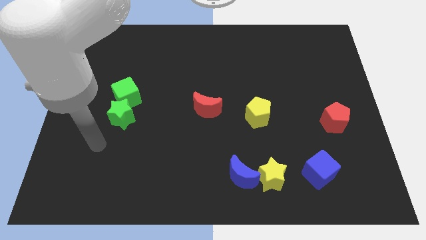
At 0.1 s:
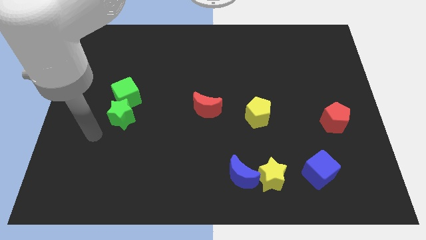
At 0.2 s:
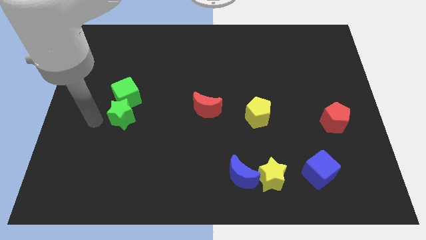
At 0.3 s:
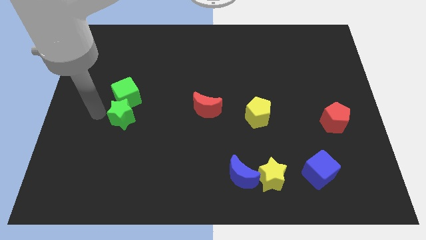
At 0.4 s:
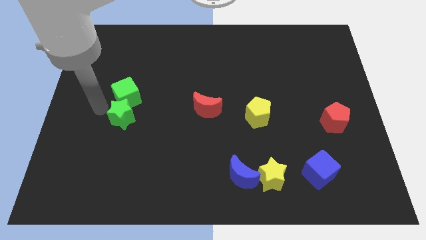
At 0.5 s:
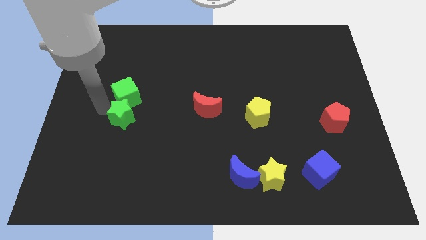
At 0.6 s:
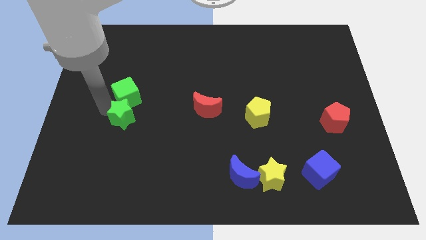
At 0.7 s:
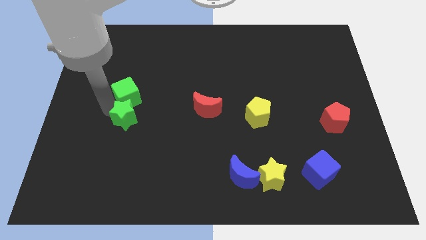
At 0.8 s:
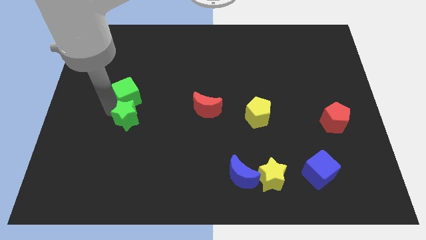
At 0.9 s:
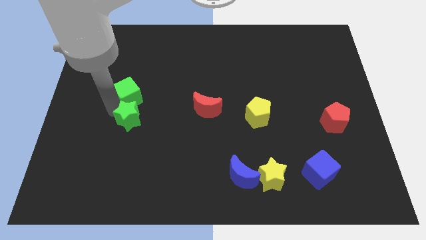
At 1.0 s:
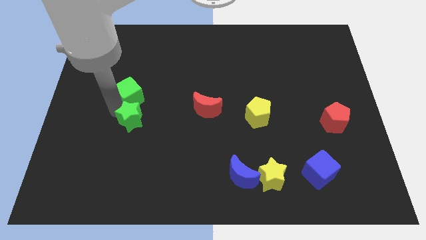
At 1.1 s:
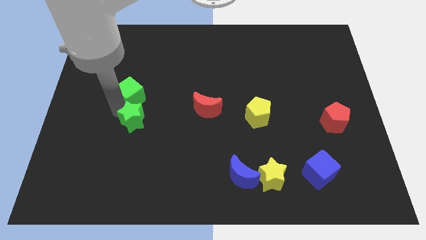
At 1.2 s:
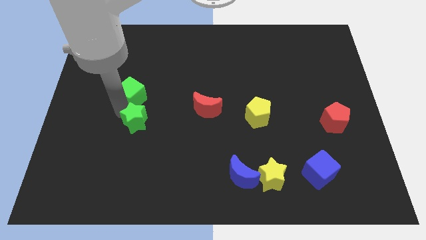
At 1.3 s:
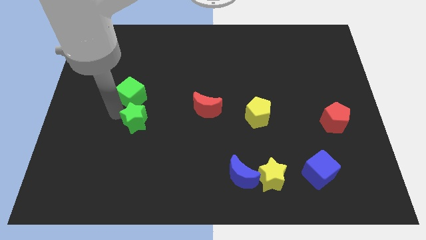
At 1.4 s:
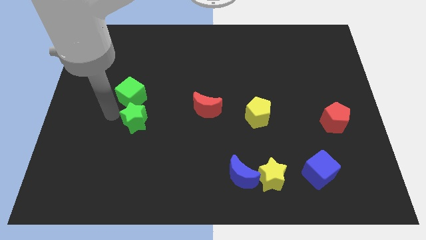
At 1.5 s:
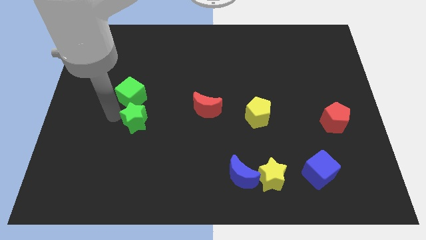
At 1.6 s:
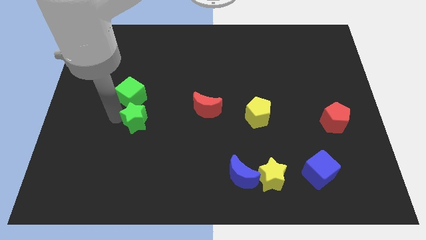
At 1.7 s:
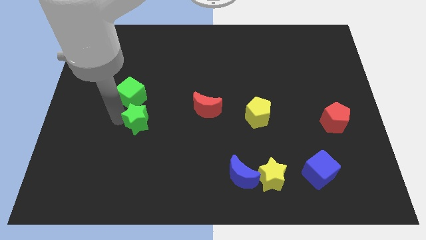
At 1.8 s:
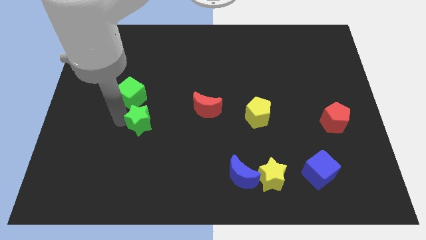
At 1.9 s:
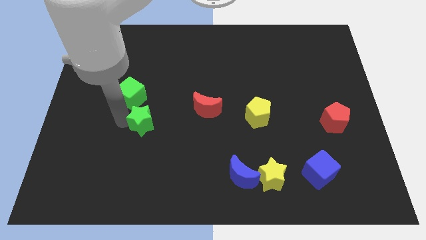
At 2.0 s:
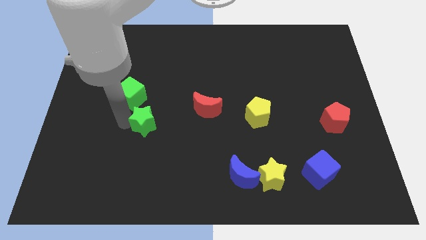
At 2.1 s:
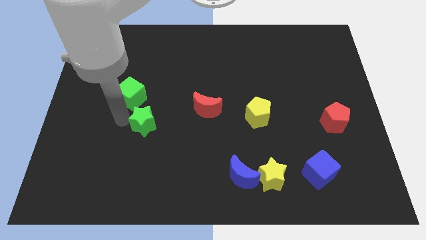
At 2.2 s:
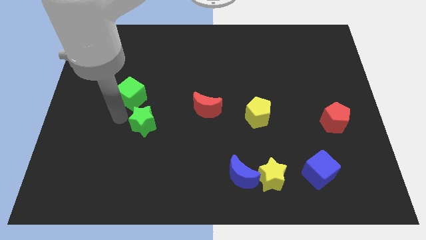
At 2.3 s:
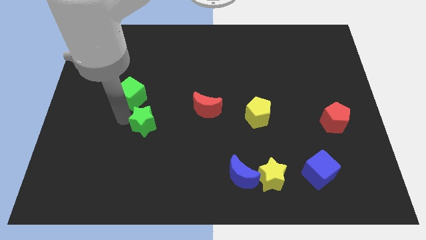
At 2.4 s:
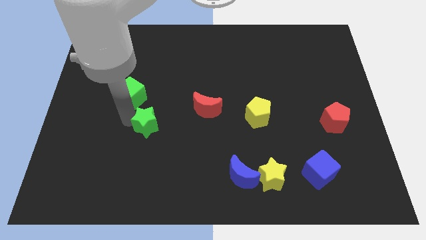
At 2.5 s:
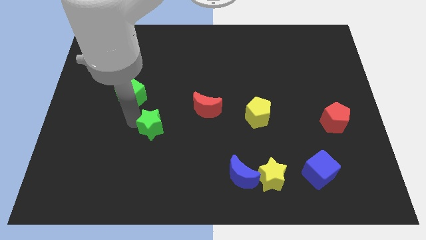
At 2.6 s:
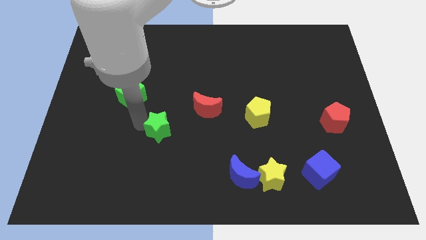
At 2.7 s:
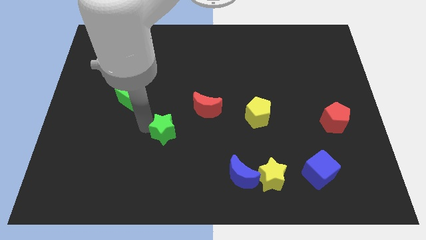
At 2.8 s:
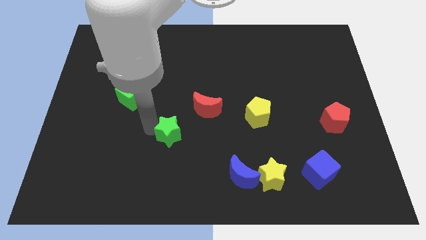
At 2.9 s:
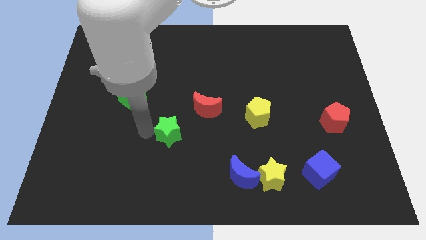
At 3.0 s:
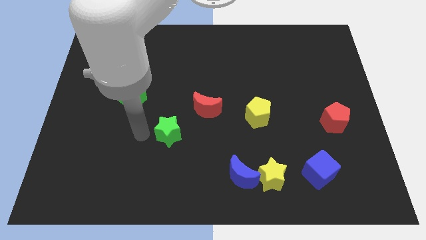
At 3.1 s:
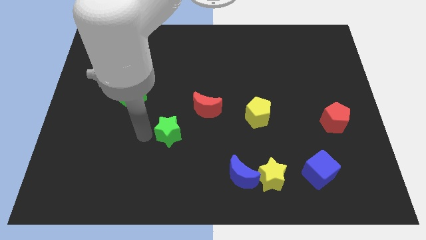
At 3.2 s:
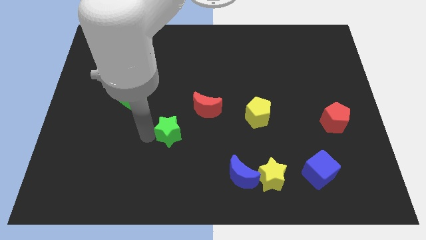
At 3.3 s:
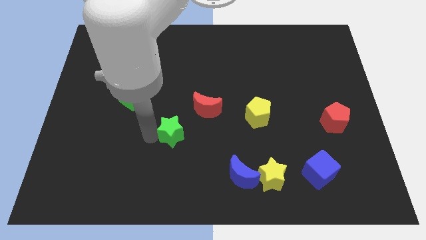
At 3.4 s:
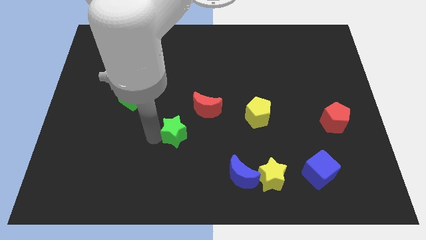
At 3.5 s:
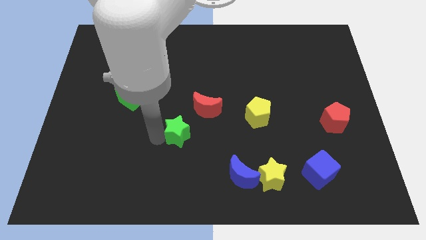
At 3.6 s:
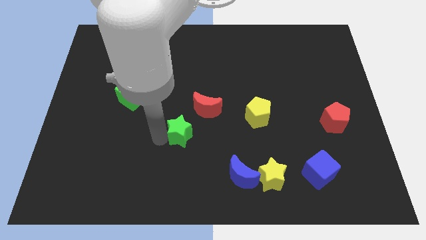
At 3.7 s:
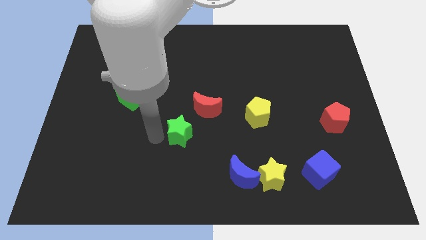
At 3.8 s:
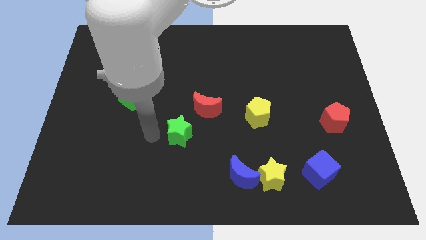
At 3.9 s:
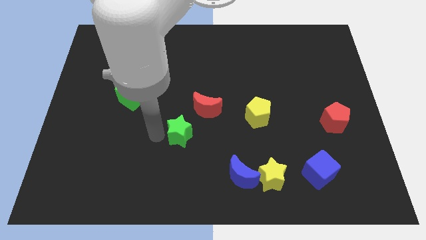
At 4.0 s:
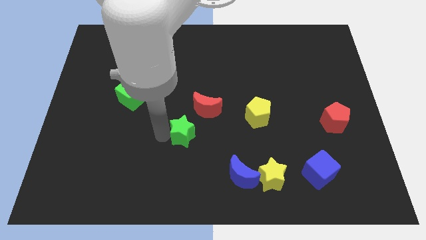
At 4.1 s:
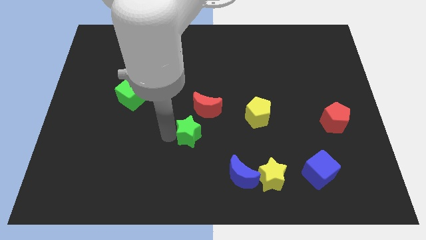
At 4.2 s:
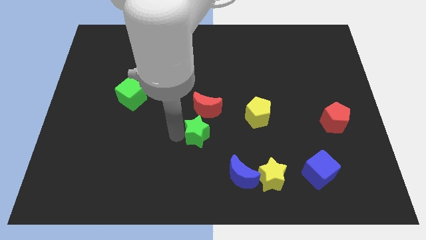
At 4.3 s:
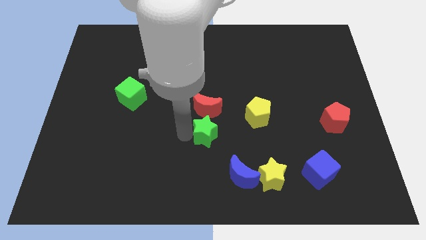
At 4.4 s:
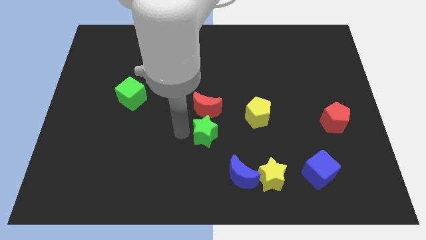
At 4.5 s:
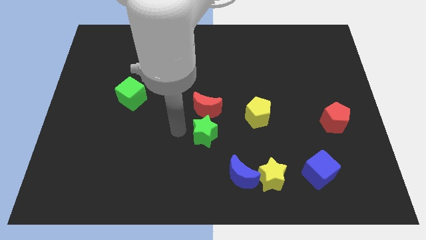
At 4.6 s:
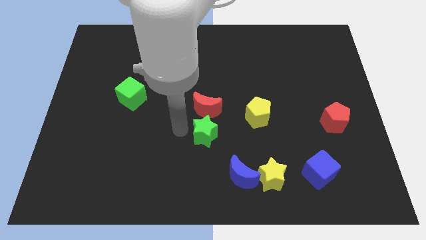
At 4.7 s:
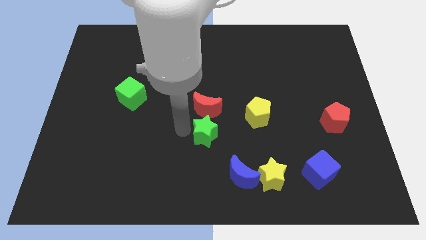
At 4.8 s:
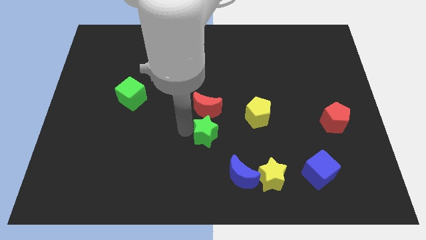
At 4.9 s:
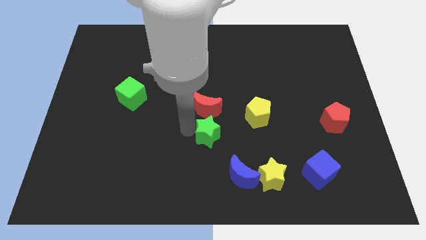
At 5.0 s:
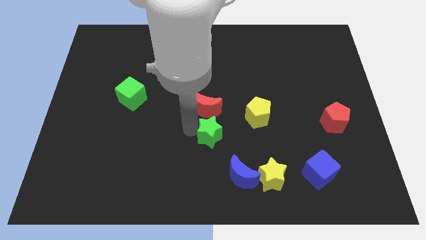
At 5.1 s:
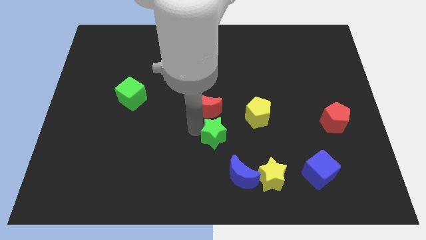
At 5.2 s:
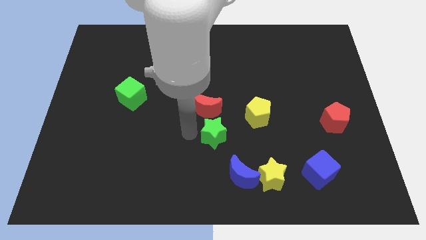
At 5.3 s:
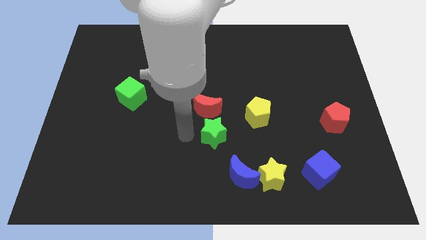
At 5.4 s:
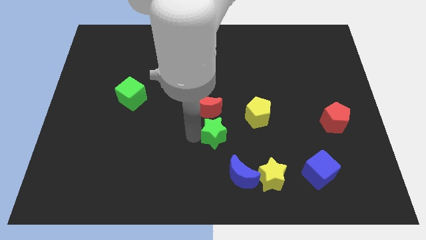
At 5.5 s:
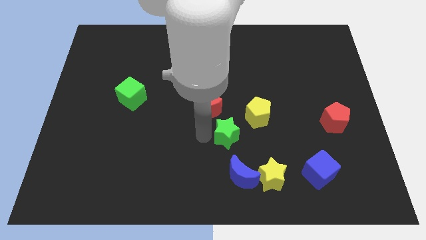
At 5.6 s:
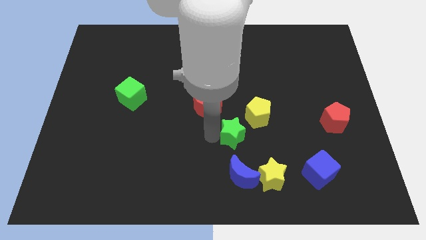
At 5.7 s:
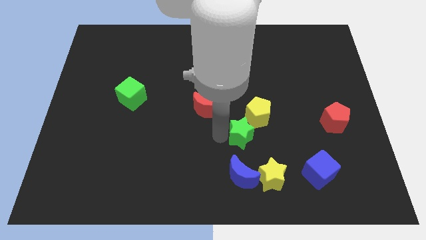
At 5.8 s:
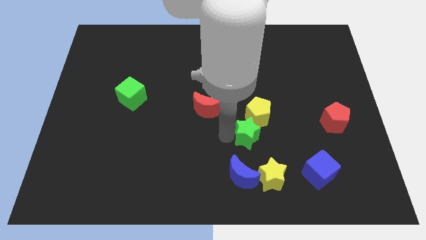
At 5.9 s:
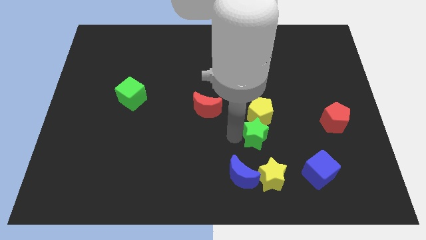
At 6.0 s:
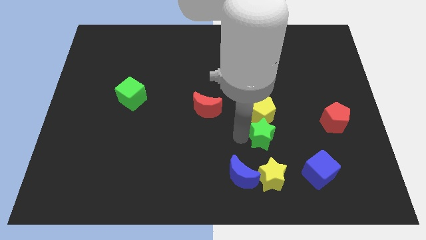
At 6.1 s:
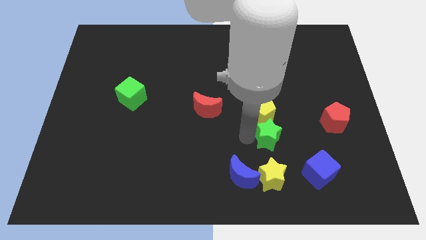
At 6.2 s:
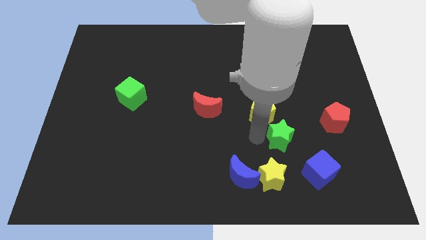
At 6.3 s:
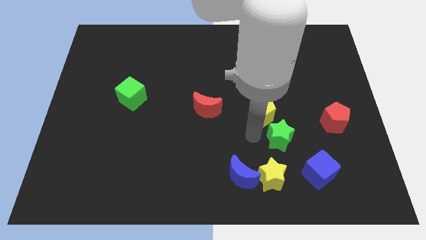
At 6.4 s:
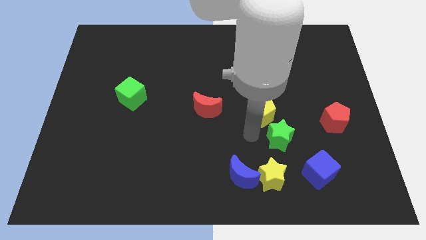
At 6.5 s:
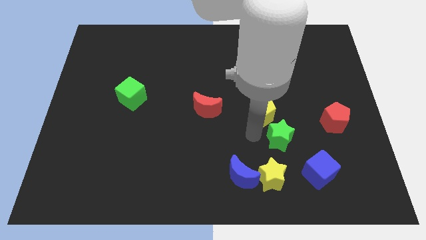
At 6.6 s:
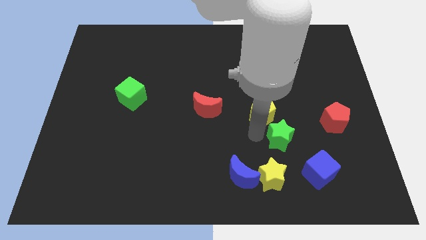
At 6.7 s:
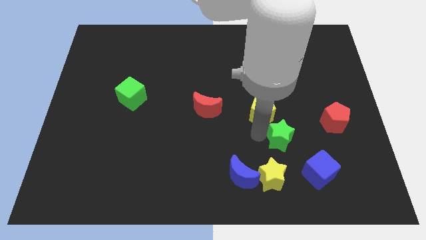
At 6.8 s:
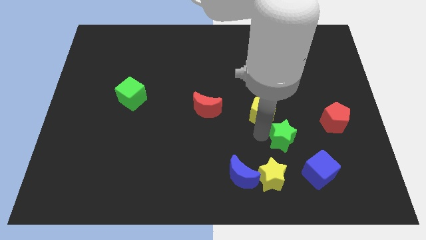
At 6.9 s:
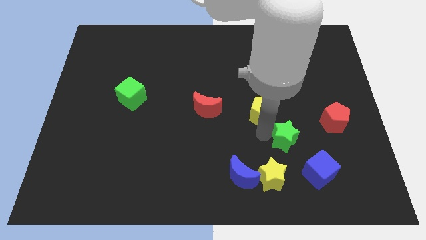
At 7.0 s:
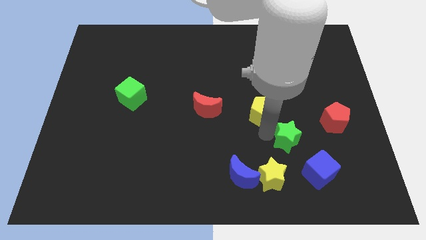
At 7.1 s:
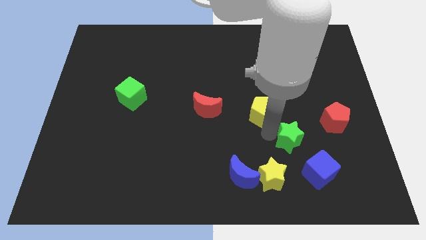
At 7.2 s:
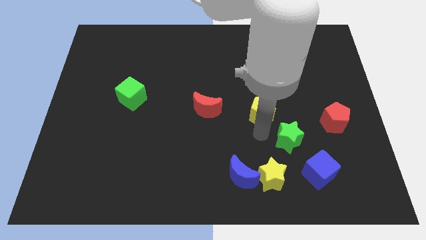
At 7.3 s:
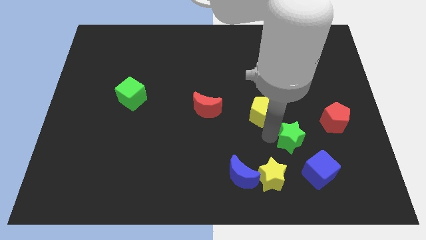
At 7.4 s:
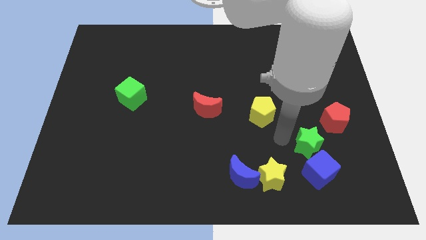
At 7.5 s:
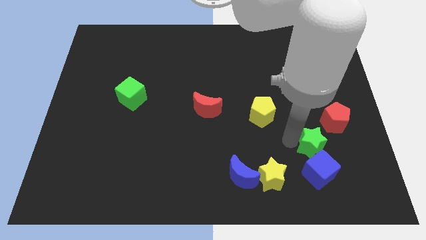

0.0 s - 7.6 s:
push the green star to the top right side of the blue cube

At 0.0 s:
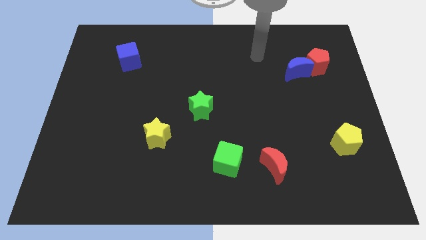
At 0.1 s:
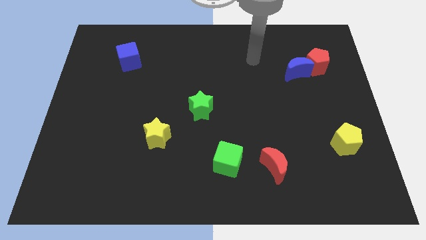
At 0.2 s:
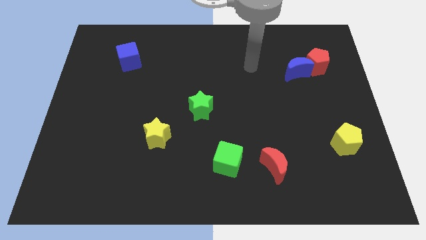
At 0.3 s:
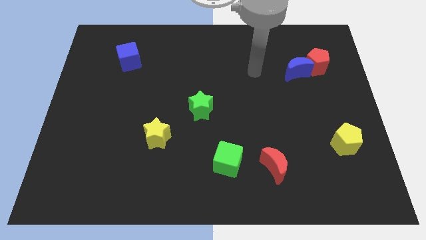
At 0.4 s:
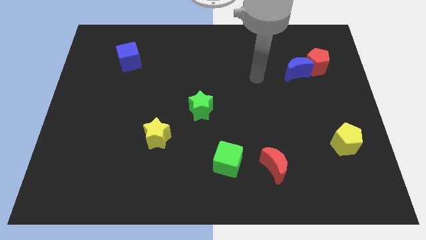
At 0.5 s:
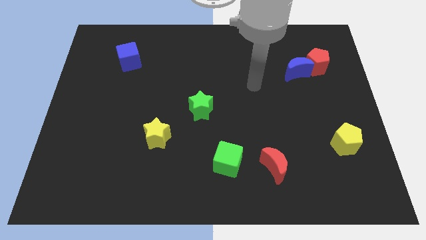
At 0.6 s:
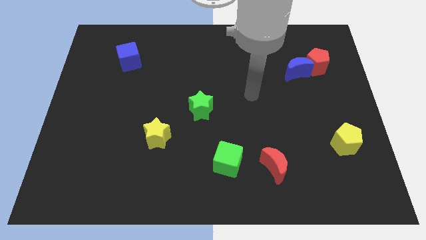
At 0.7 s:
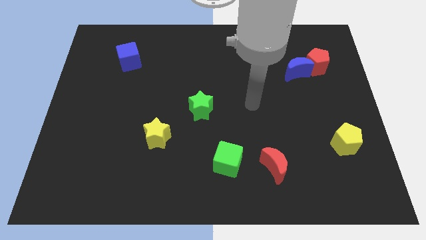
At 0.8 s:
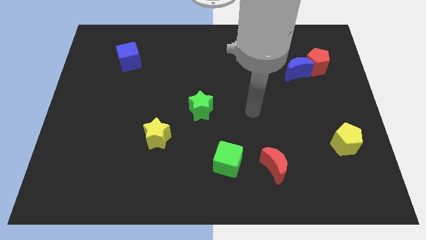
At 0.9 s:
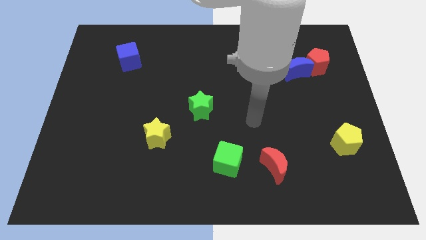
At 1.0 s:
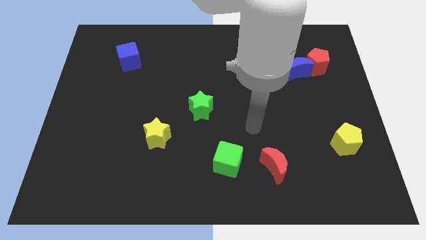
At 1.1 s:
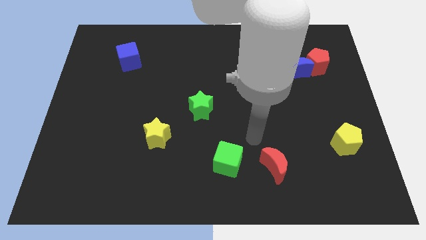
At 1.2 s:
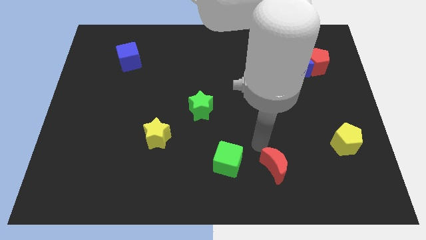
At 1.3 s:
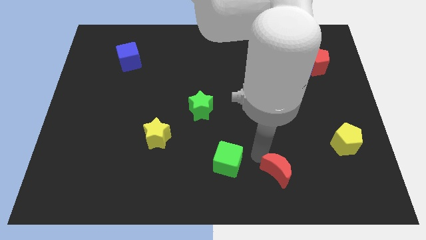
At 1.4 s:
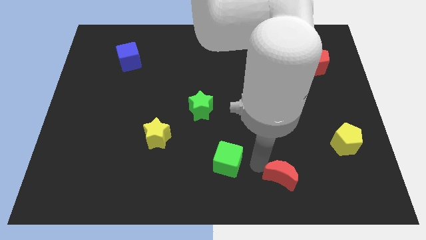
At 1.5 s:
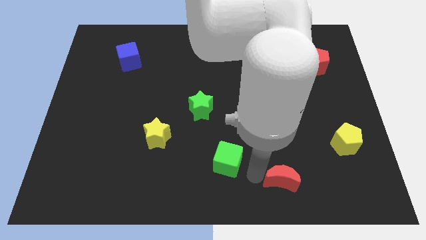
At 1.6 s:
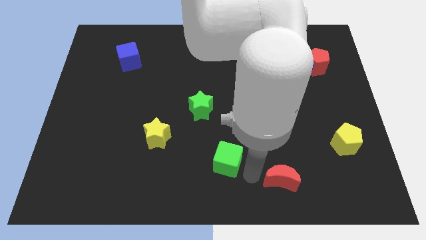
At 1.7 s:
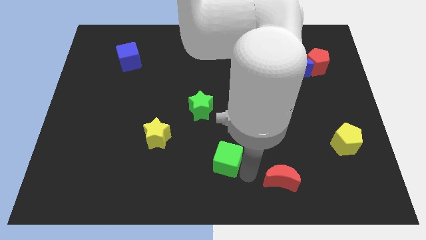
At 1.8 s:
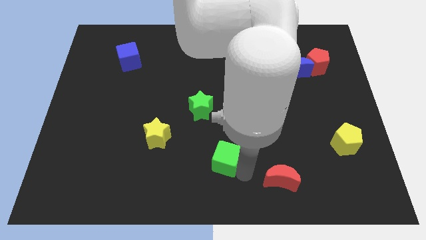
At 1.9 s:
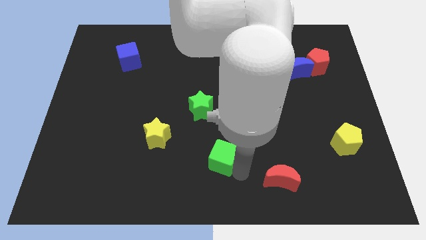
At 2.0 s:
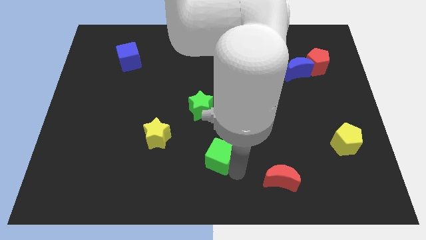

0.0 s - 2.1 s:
push the green cube to the bottom of the green star
